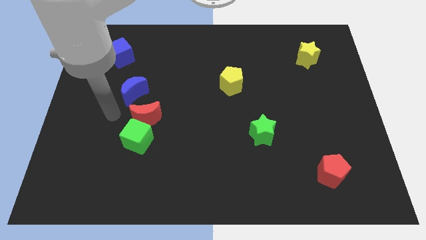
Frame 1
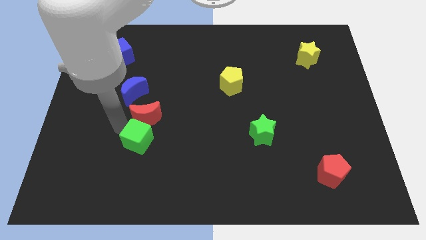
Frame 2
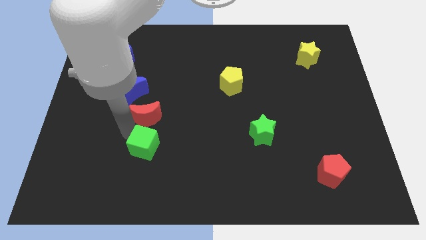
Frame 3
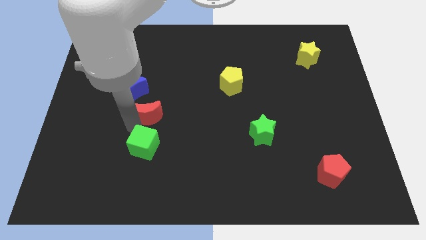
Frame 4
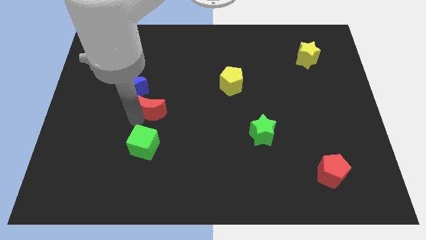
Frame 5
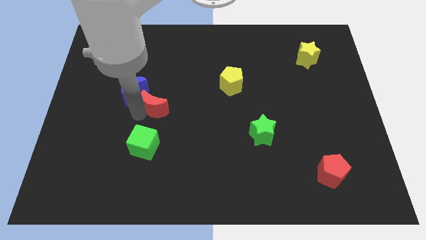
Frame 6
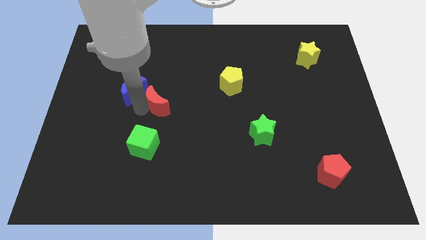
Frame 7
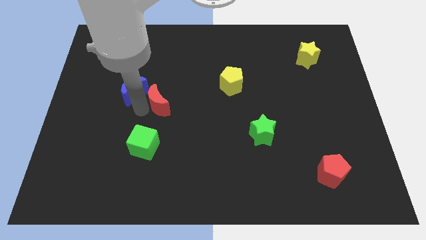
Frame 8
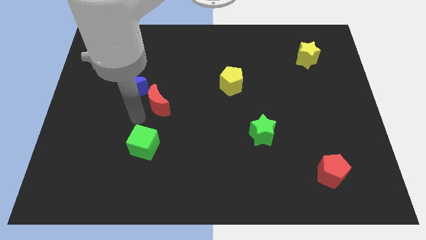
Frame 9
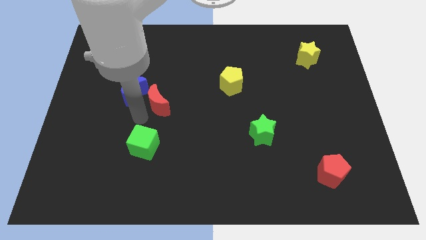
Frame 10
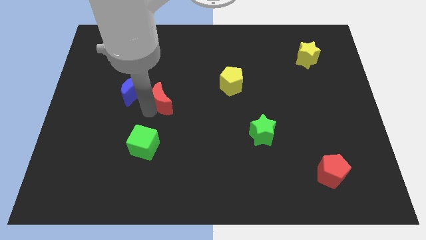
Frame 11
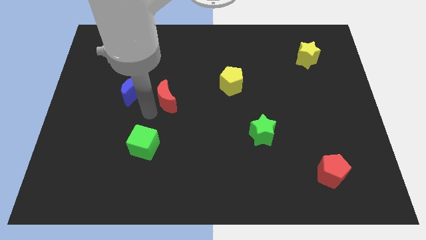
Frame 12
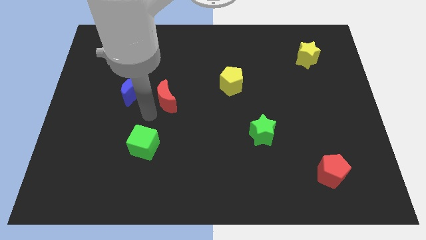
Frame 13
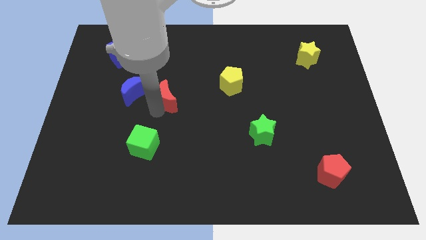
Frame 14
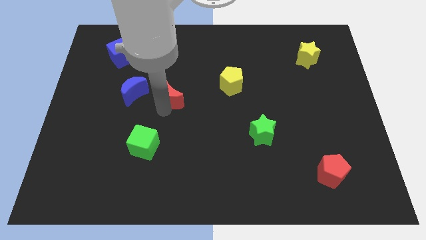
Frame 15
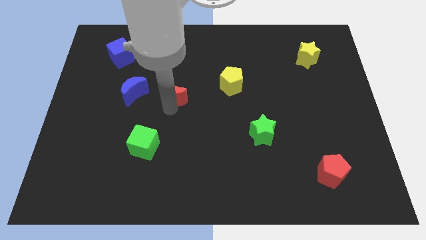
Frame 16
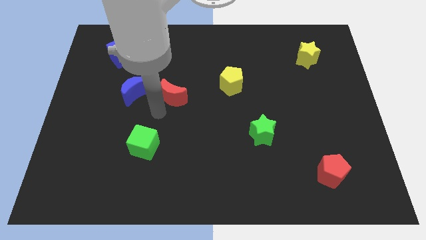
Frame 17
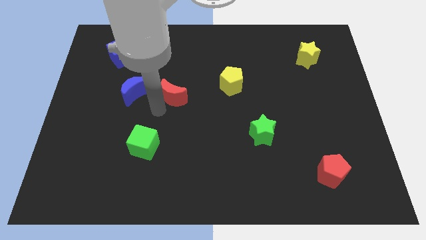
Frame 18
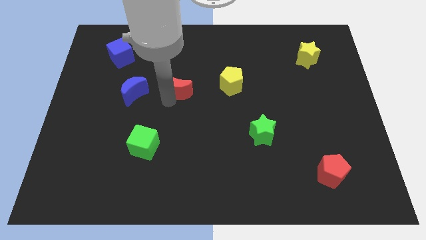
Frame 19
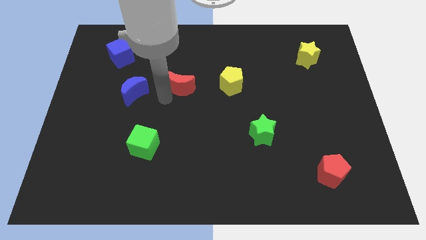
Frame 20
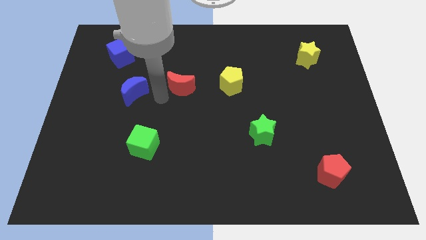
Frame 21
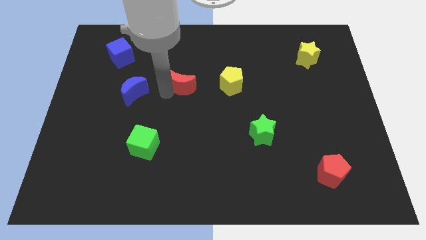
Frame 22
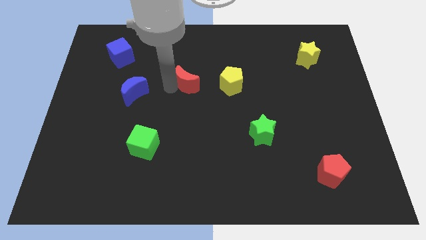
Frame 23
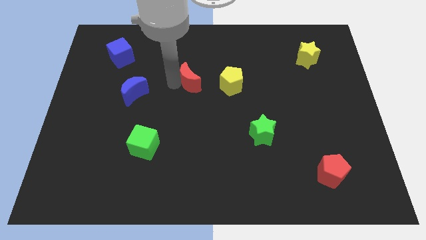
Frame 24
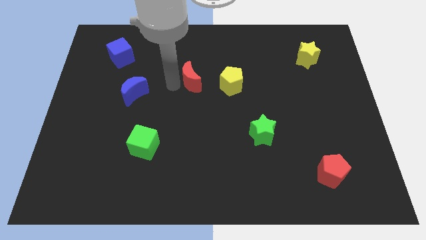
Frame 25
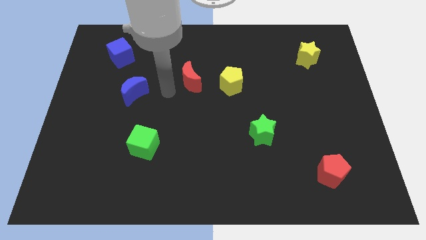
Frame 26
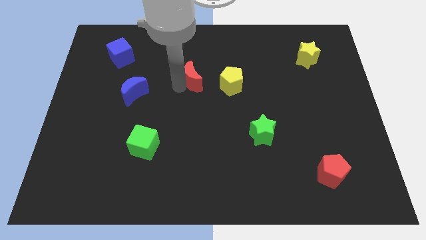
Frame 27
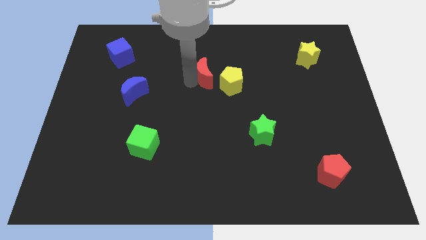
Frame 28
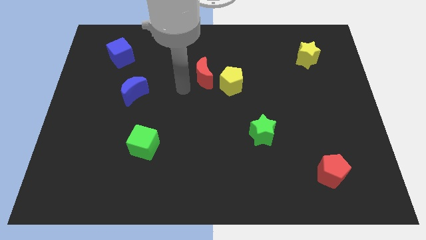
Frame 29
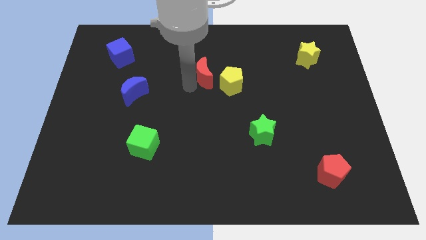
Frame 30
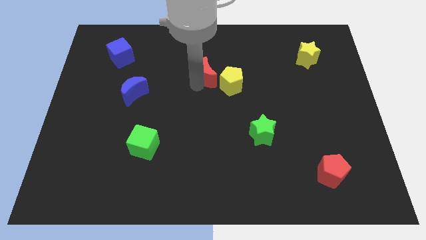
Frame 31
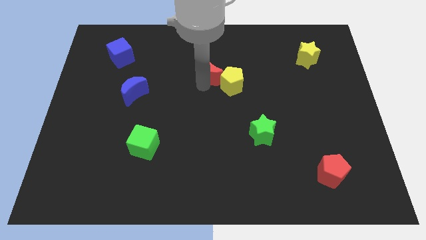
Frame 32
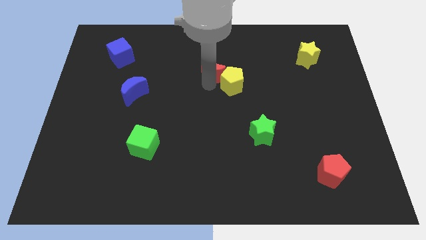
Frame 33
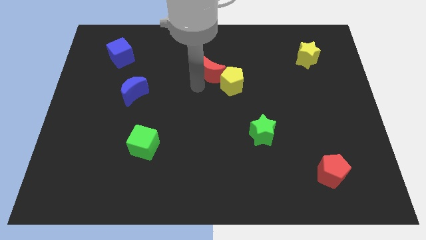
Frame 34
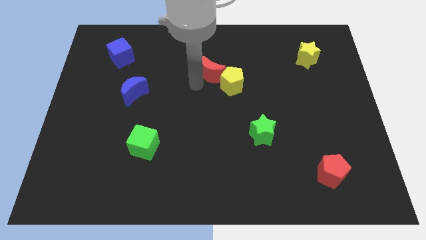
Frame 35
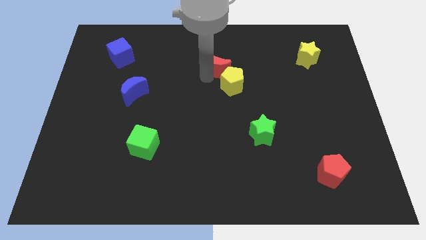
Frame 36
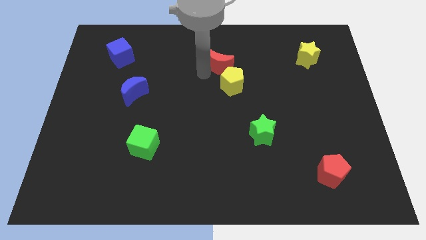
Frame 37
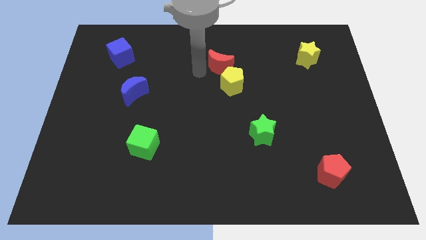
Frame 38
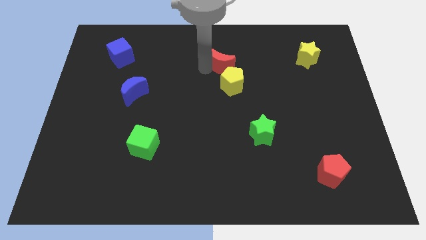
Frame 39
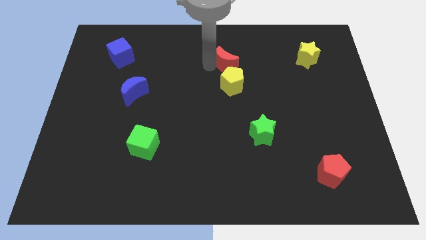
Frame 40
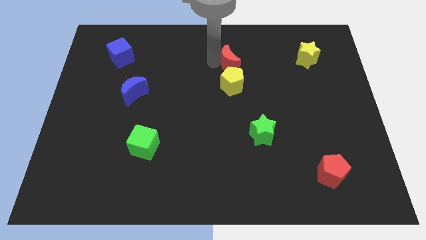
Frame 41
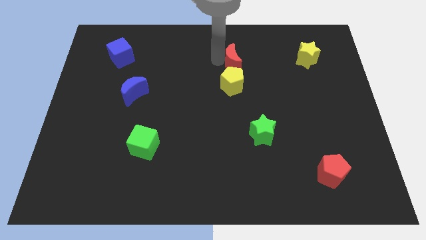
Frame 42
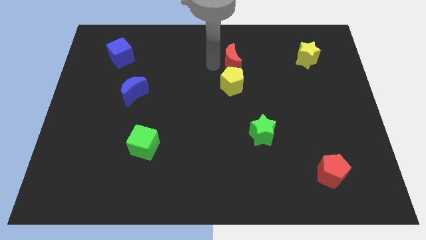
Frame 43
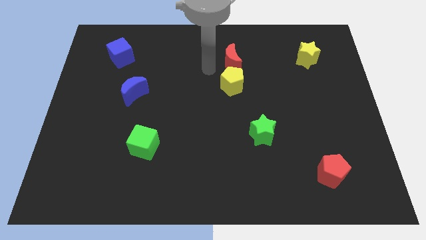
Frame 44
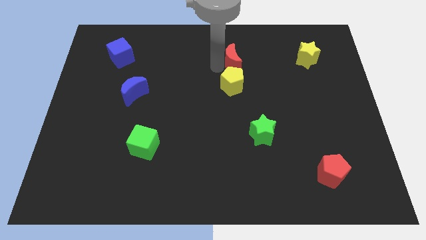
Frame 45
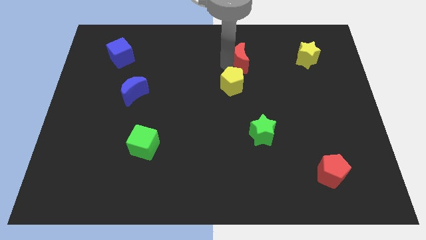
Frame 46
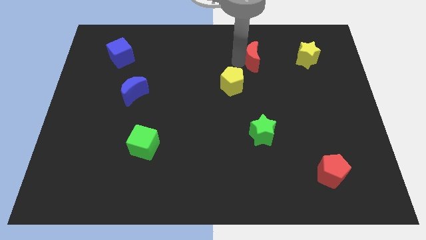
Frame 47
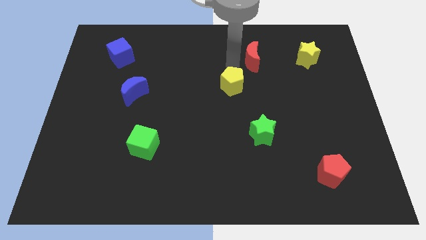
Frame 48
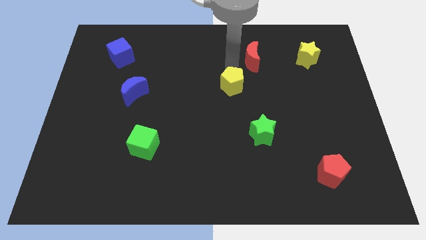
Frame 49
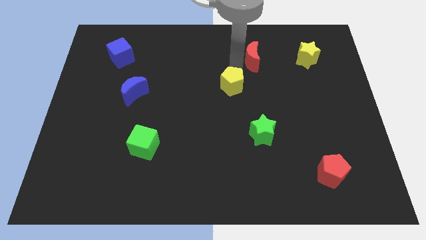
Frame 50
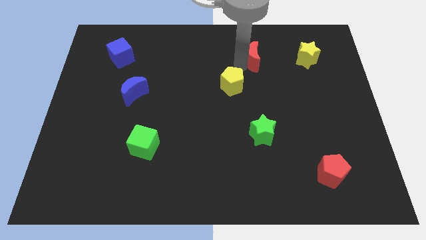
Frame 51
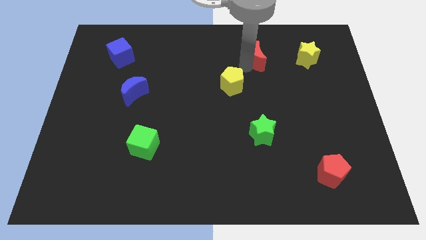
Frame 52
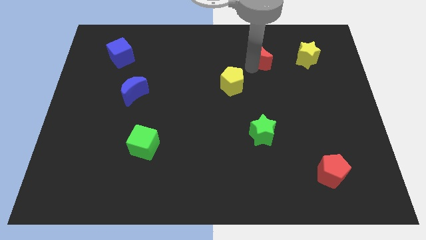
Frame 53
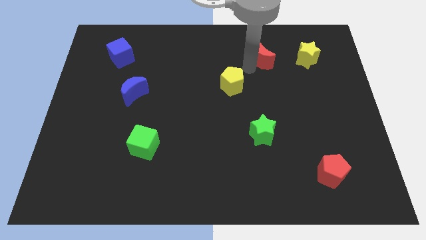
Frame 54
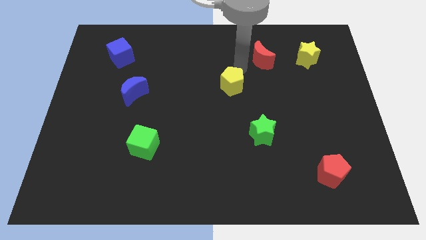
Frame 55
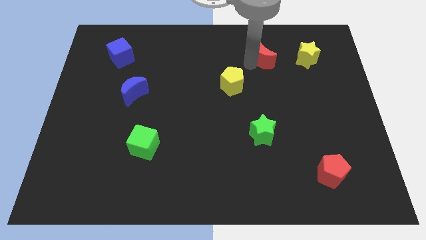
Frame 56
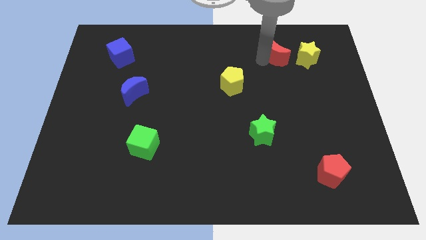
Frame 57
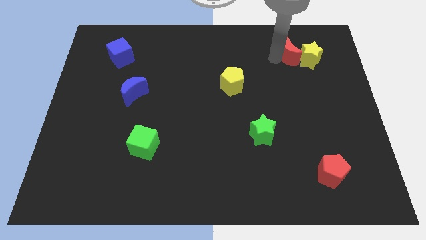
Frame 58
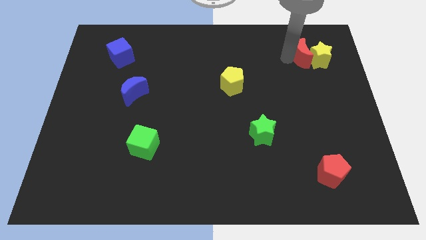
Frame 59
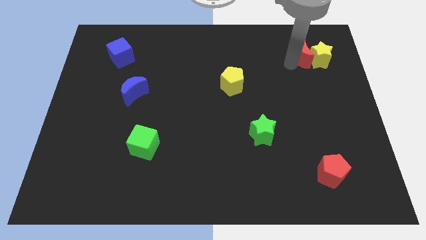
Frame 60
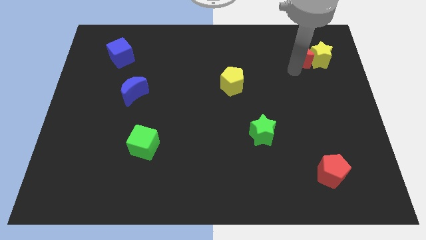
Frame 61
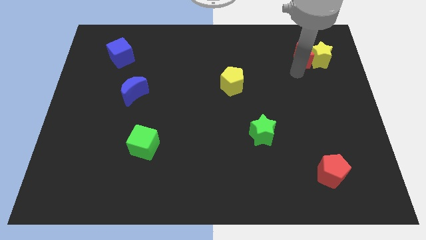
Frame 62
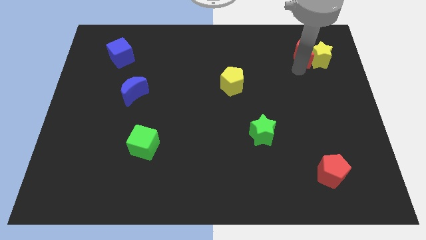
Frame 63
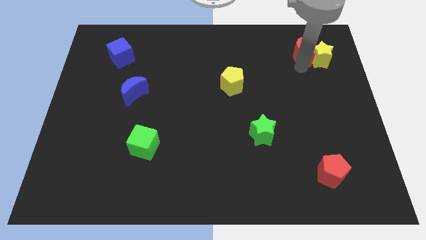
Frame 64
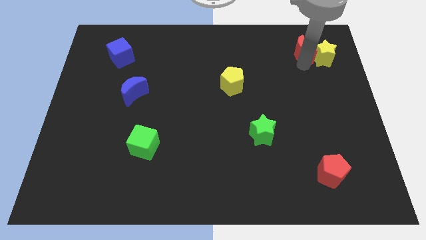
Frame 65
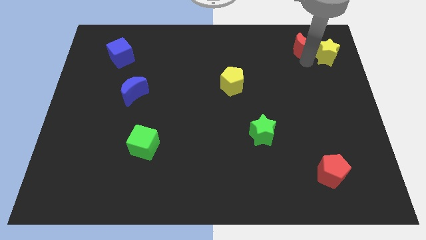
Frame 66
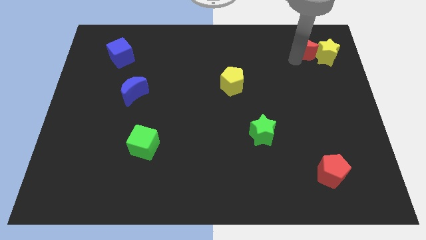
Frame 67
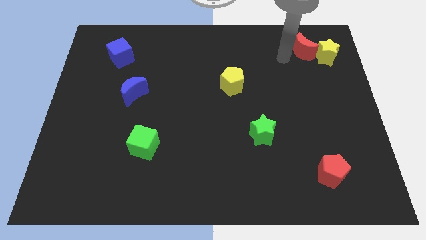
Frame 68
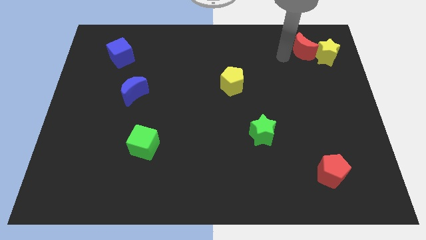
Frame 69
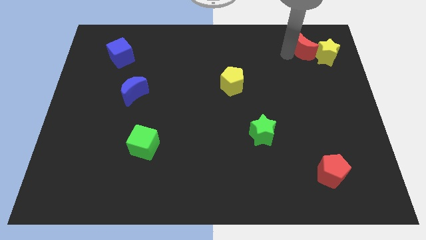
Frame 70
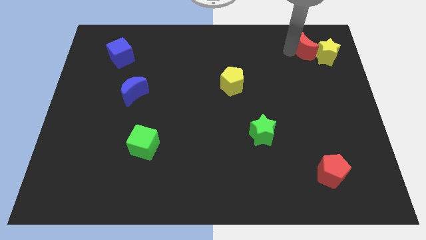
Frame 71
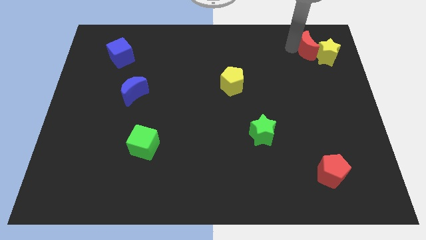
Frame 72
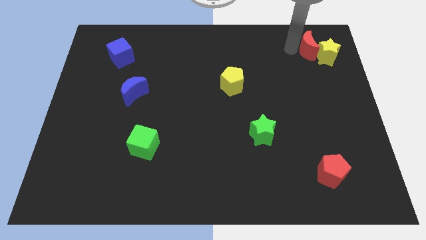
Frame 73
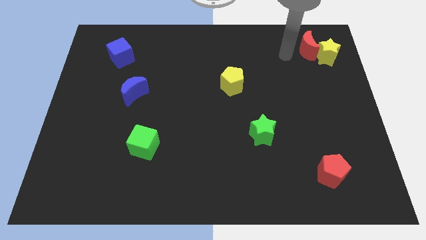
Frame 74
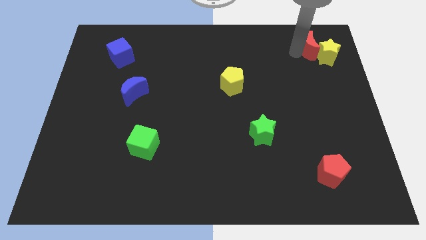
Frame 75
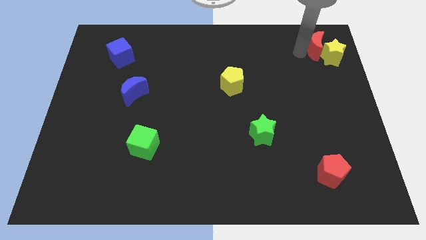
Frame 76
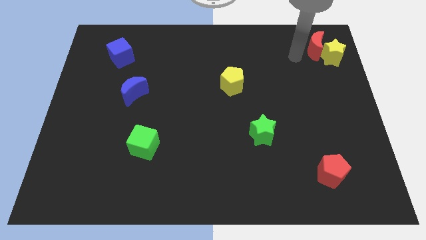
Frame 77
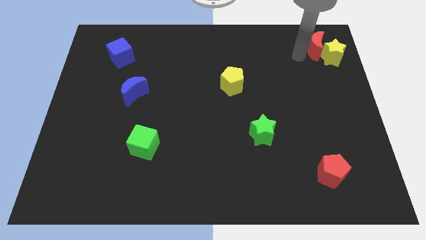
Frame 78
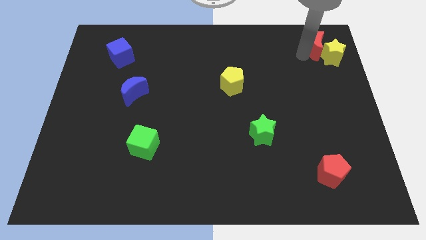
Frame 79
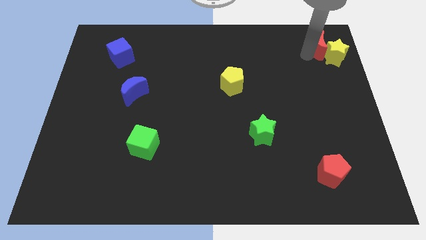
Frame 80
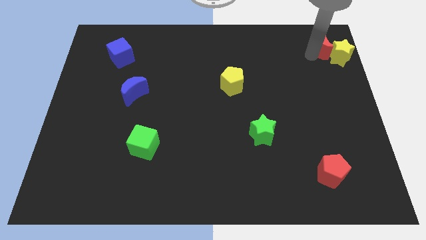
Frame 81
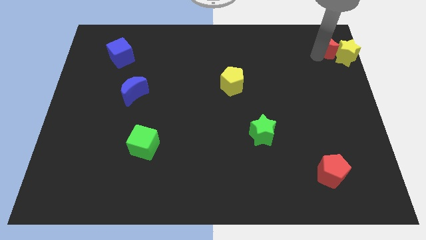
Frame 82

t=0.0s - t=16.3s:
push the red moon to the top right of the board
